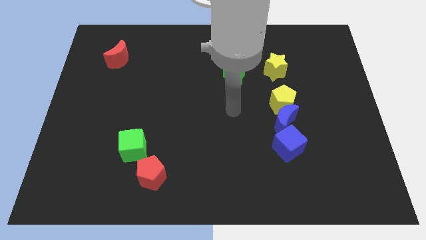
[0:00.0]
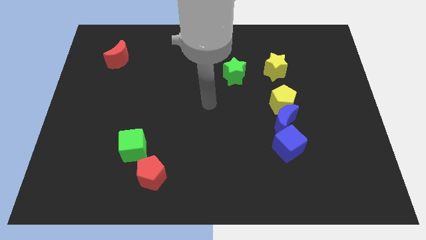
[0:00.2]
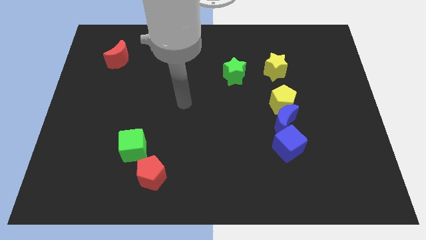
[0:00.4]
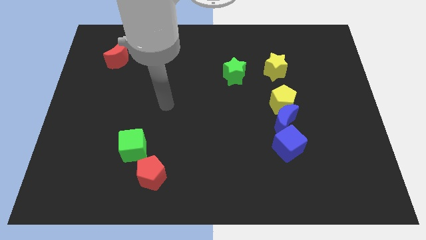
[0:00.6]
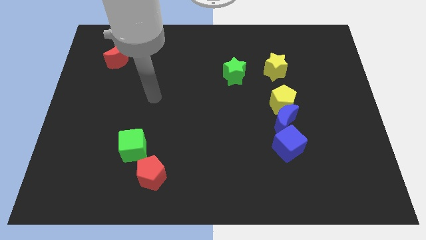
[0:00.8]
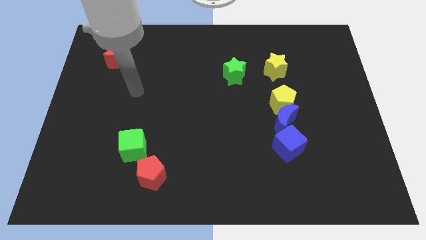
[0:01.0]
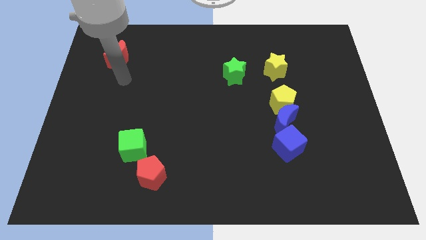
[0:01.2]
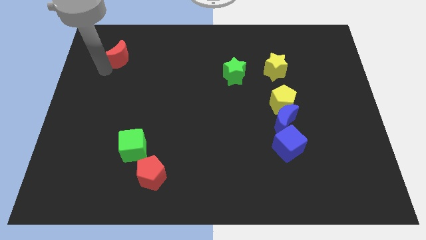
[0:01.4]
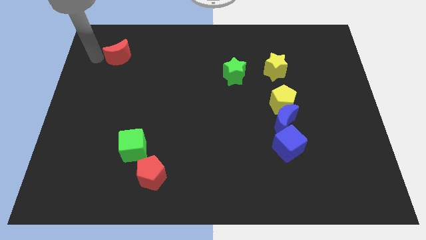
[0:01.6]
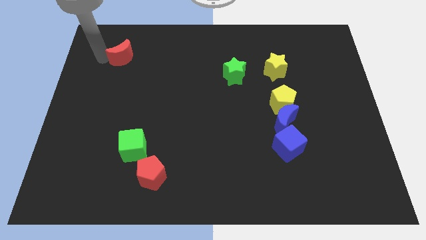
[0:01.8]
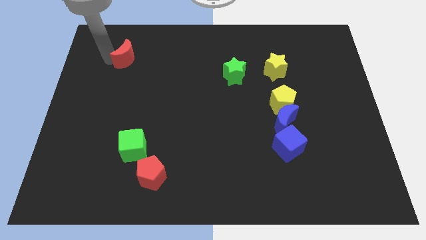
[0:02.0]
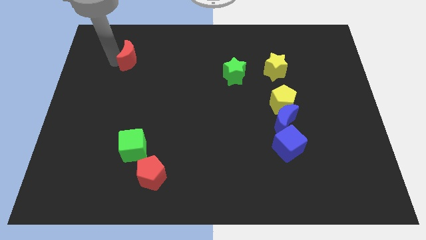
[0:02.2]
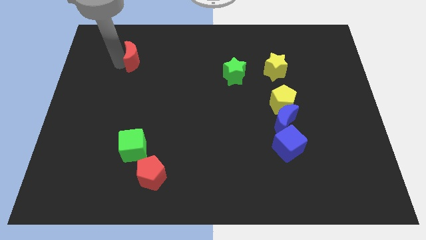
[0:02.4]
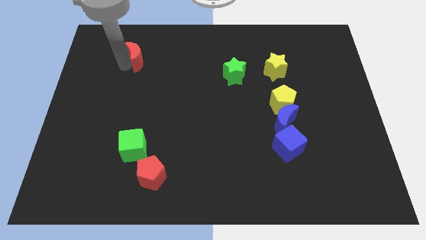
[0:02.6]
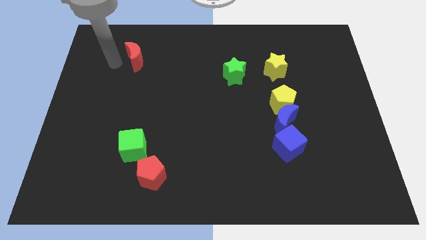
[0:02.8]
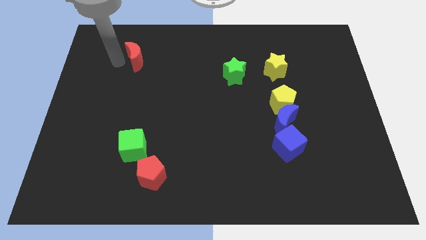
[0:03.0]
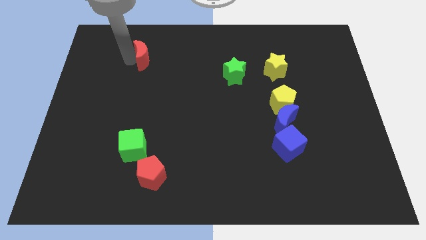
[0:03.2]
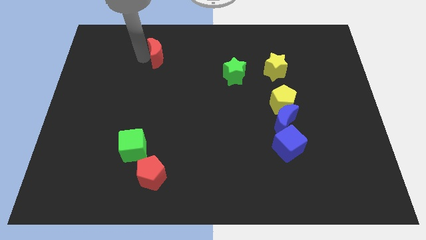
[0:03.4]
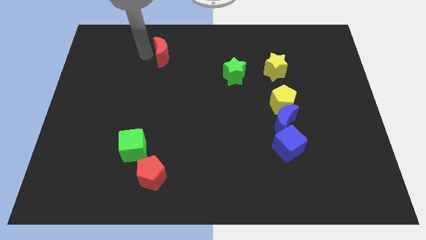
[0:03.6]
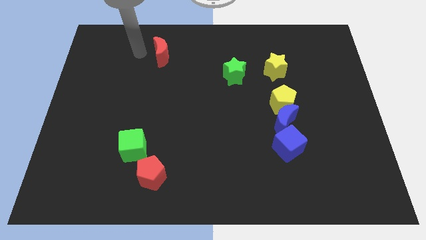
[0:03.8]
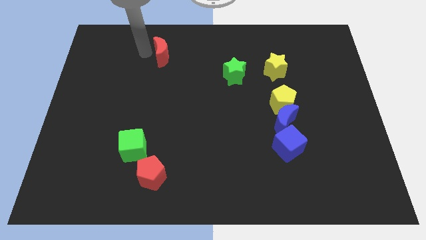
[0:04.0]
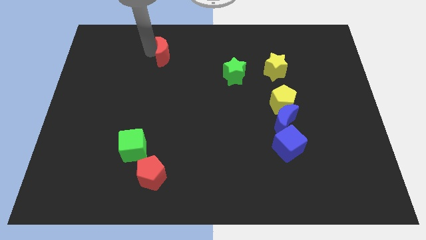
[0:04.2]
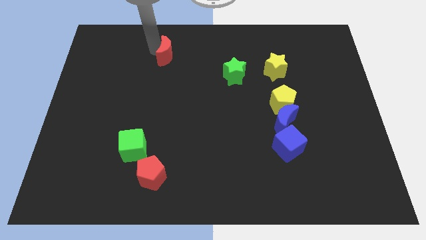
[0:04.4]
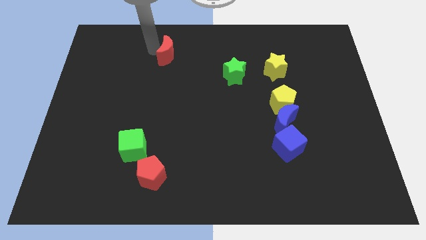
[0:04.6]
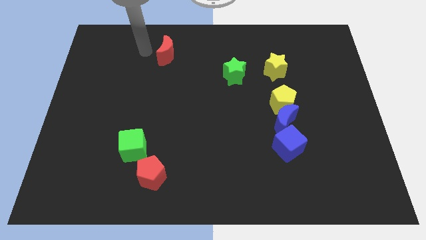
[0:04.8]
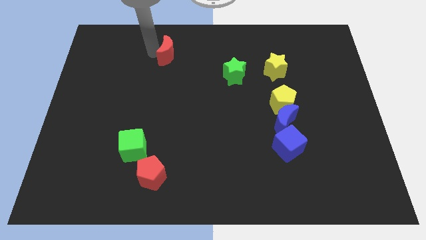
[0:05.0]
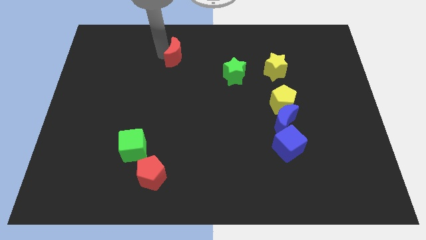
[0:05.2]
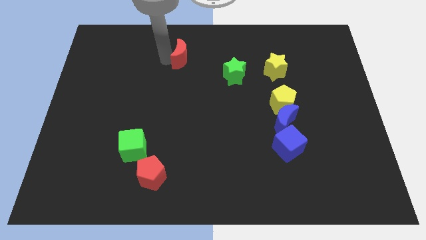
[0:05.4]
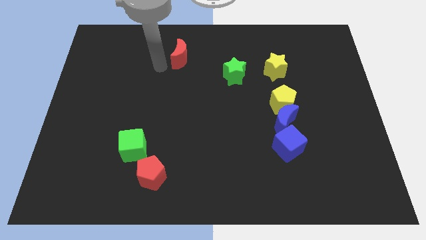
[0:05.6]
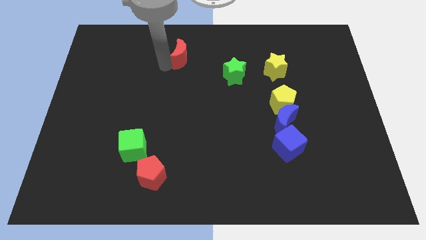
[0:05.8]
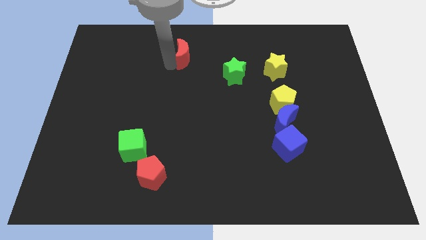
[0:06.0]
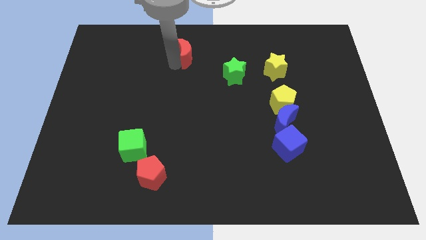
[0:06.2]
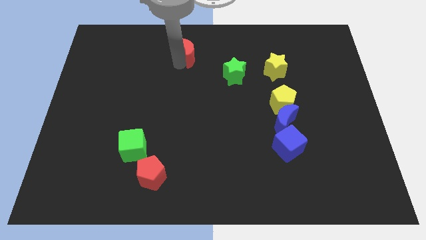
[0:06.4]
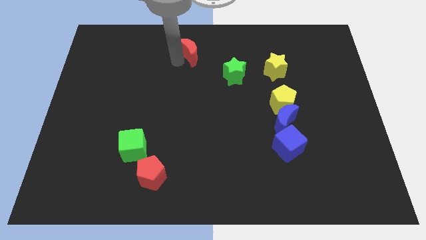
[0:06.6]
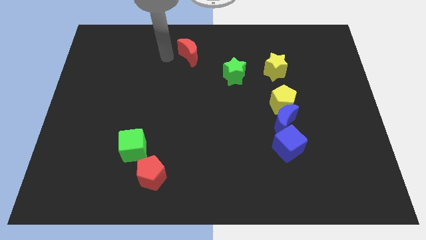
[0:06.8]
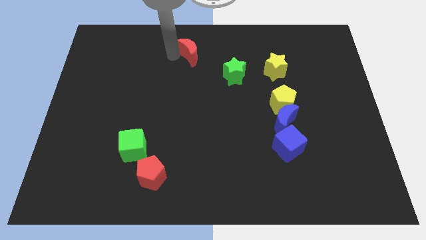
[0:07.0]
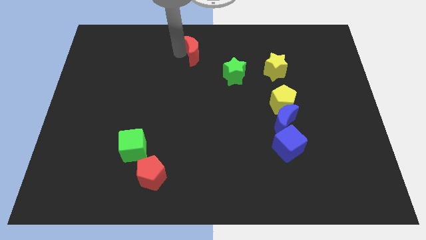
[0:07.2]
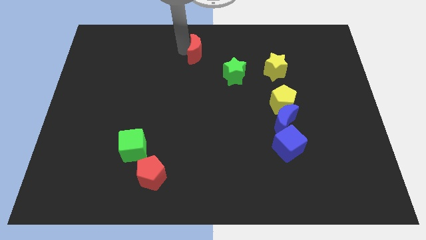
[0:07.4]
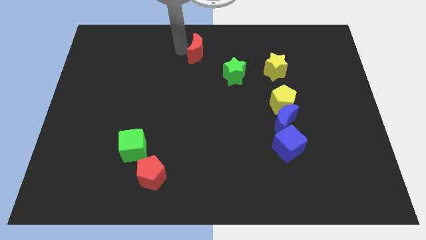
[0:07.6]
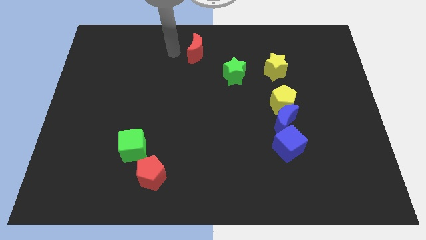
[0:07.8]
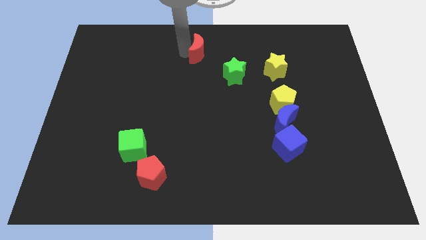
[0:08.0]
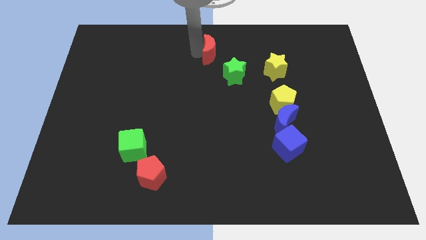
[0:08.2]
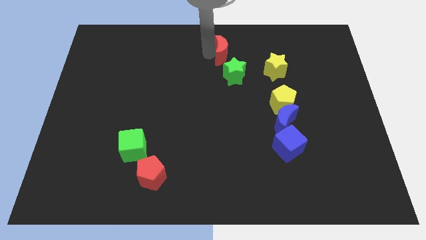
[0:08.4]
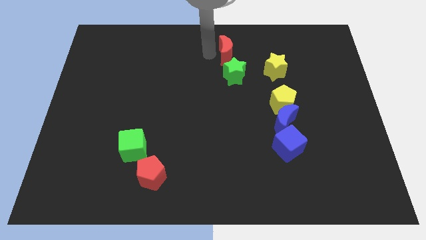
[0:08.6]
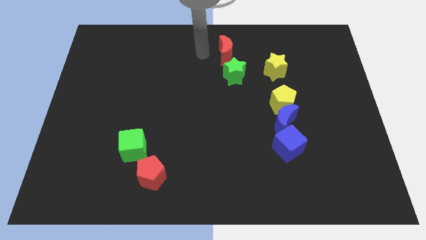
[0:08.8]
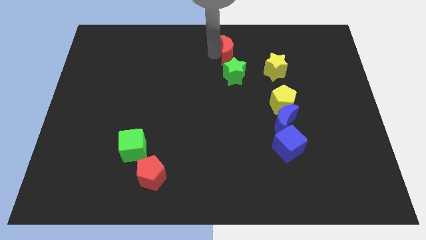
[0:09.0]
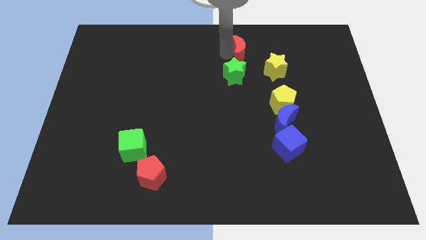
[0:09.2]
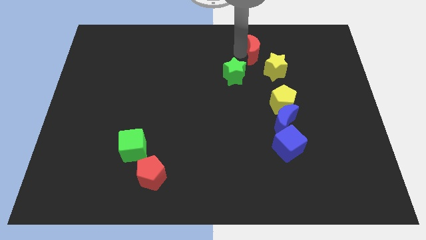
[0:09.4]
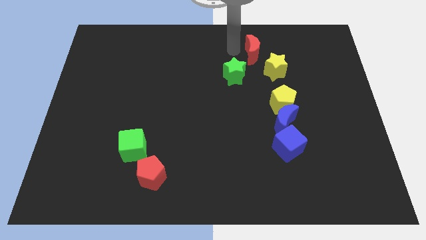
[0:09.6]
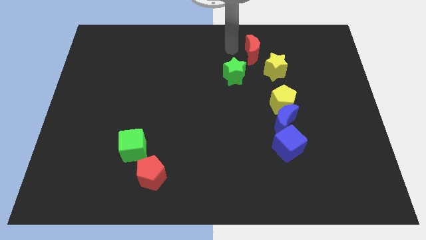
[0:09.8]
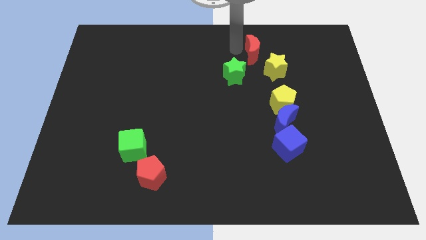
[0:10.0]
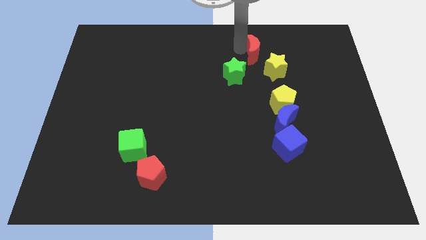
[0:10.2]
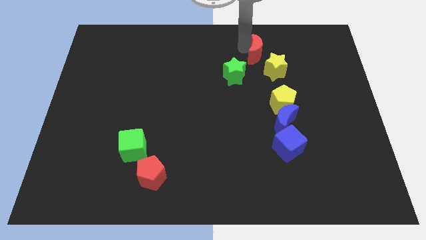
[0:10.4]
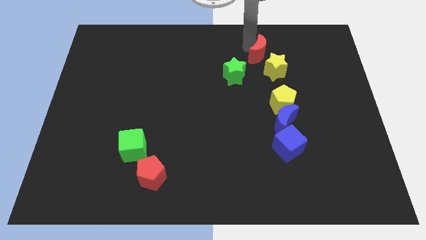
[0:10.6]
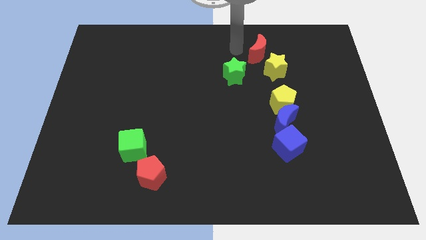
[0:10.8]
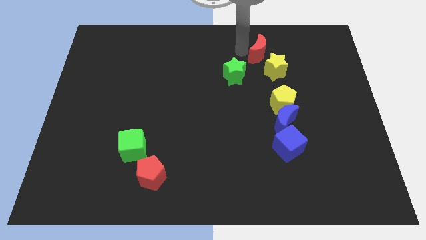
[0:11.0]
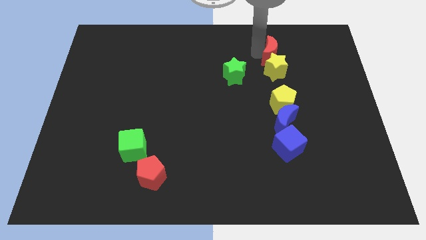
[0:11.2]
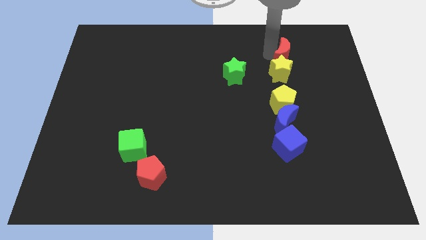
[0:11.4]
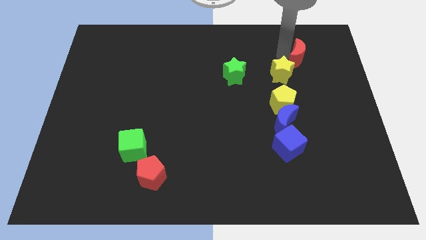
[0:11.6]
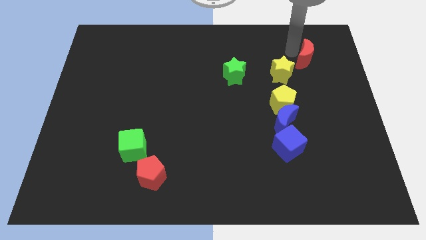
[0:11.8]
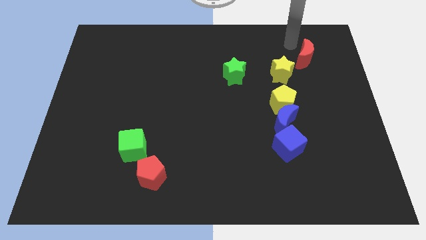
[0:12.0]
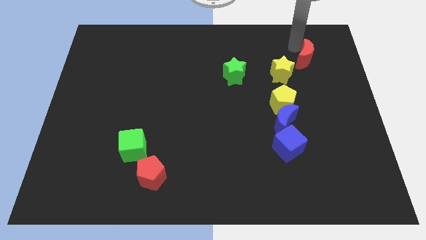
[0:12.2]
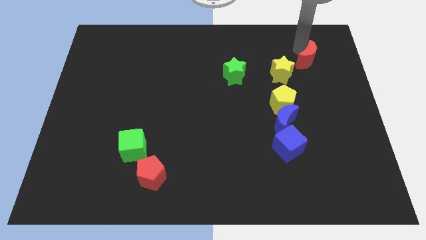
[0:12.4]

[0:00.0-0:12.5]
push the red moon right of the yellow star

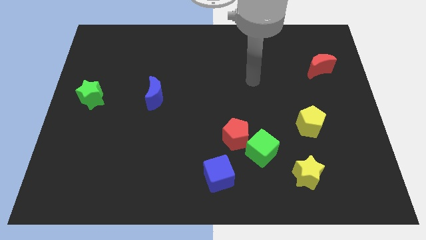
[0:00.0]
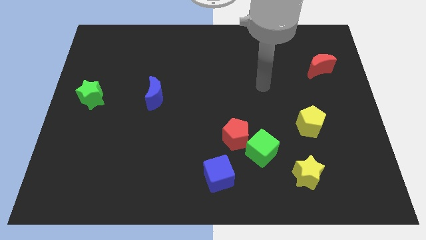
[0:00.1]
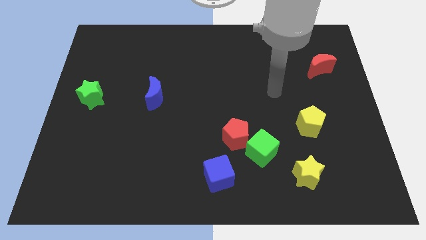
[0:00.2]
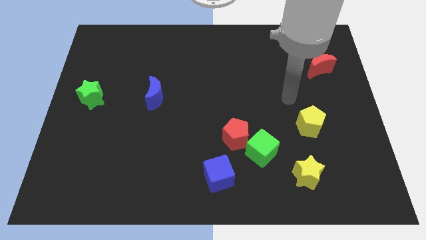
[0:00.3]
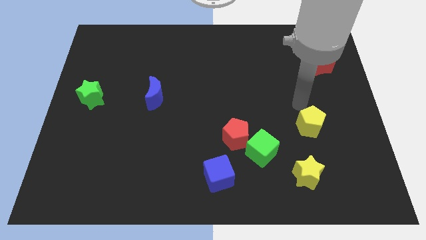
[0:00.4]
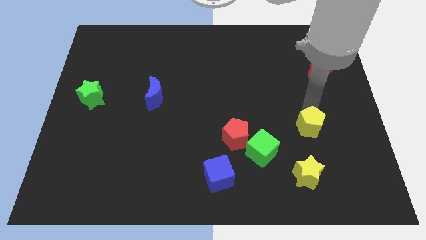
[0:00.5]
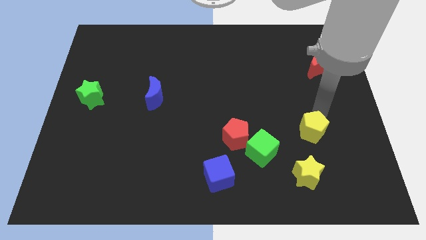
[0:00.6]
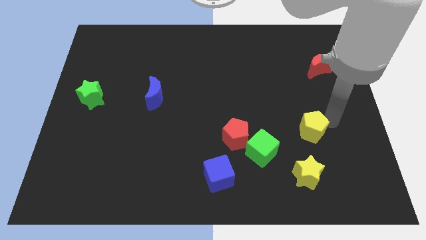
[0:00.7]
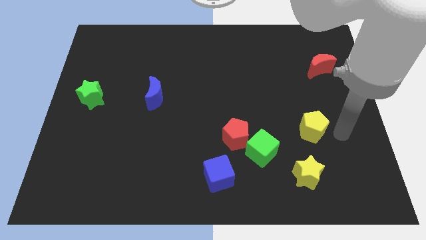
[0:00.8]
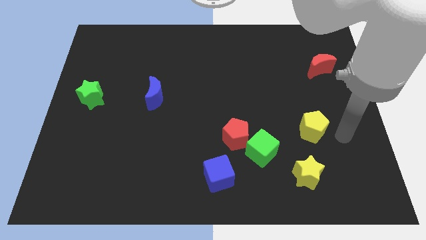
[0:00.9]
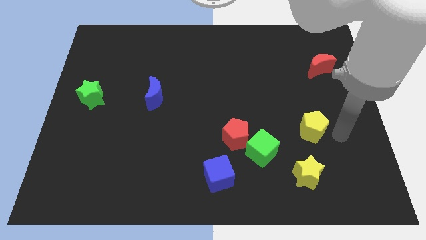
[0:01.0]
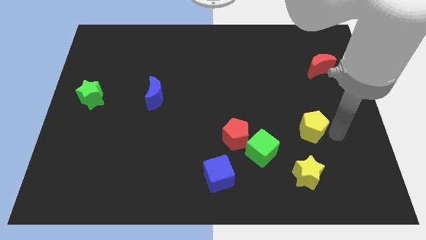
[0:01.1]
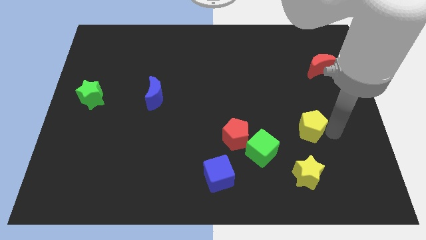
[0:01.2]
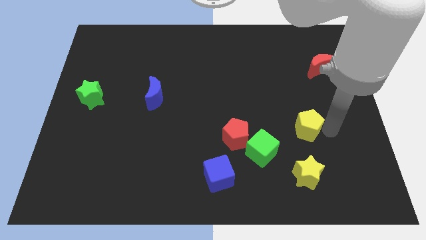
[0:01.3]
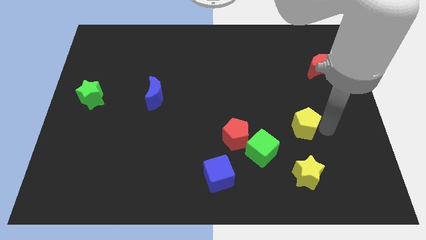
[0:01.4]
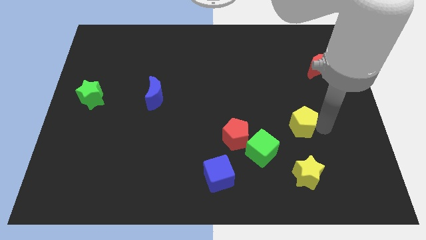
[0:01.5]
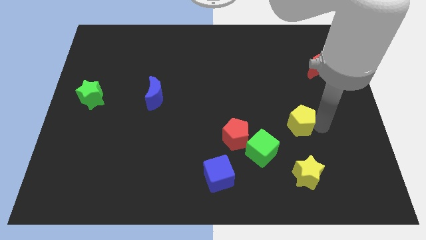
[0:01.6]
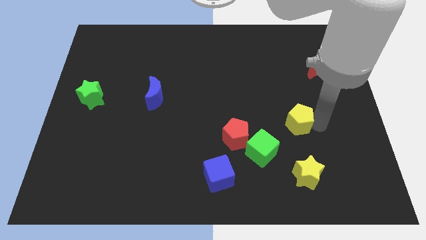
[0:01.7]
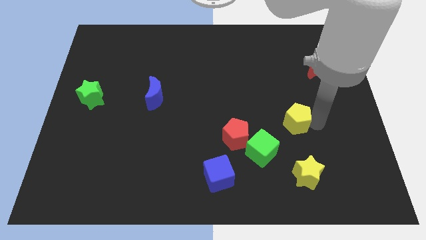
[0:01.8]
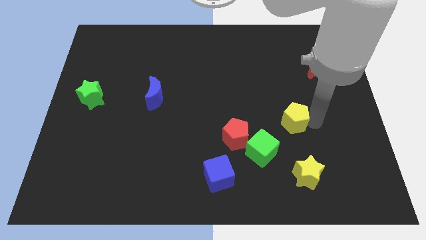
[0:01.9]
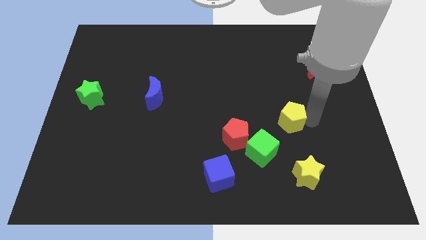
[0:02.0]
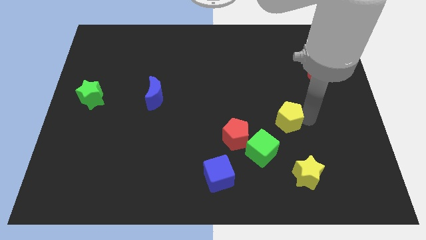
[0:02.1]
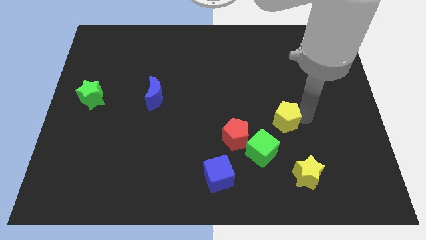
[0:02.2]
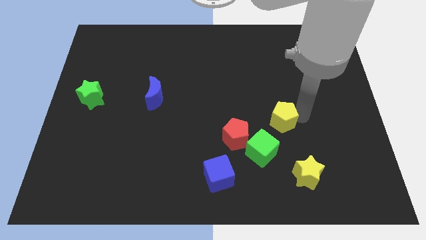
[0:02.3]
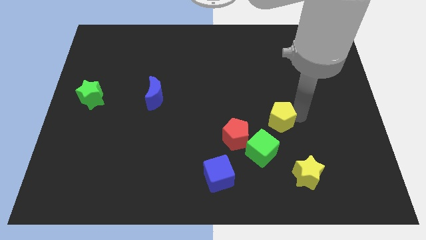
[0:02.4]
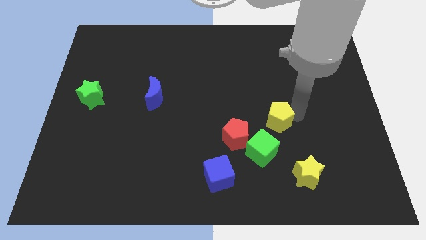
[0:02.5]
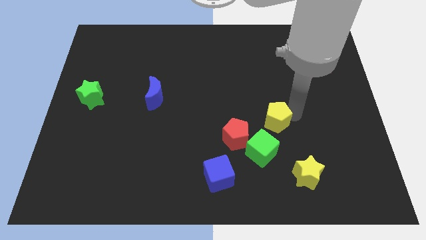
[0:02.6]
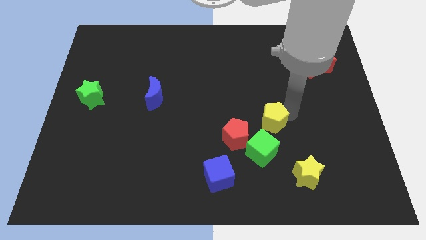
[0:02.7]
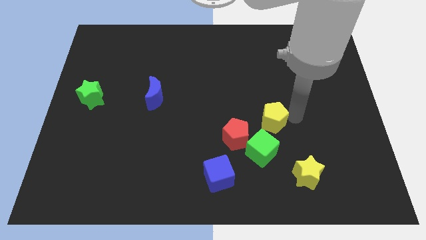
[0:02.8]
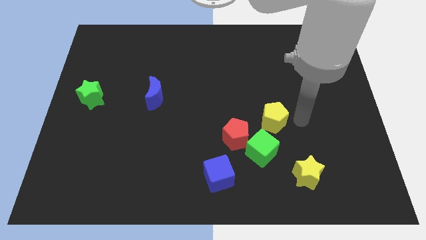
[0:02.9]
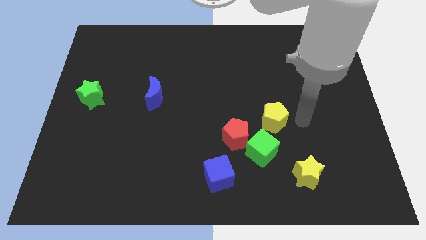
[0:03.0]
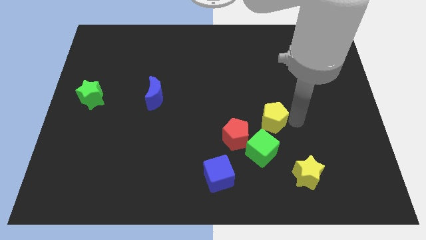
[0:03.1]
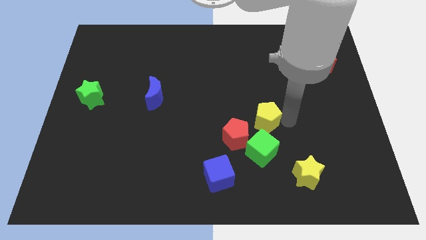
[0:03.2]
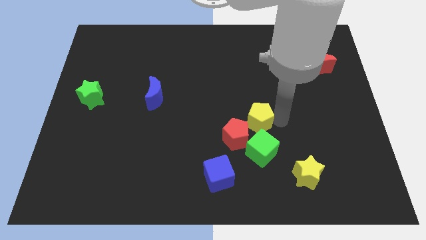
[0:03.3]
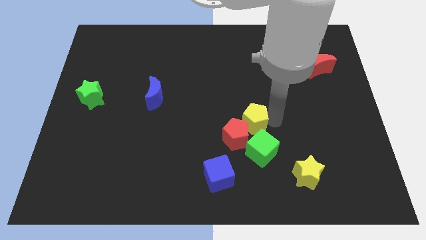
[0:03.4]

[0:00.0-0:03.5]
push the yellow pentagon to the top left side of the green cube
